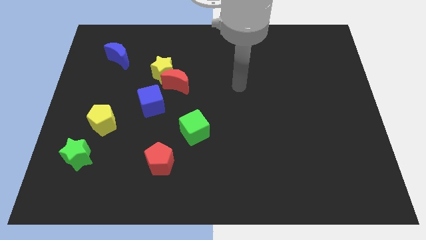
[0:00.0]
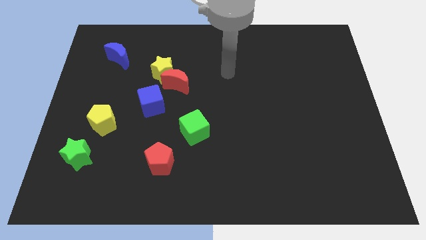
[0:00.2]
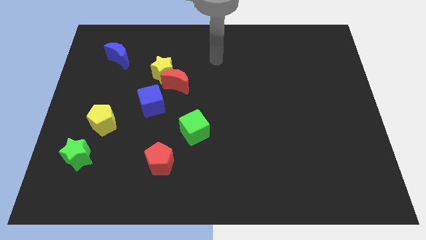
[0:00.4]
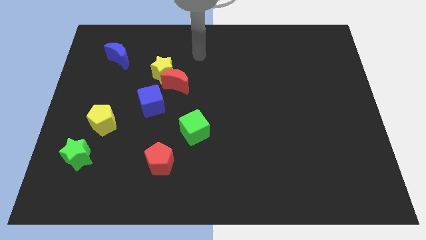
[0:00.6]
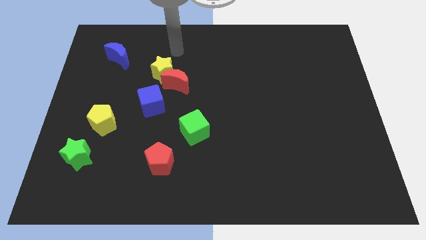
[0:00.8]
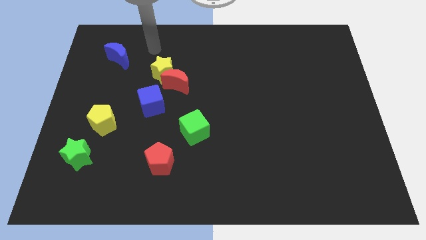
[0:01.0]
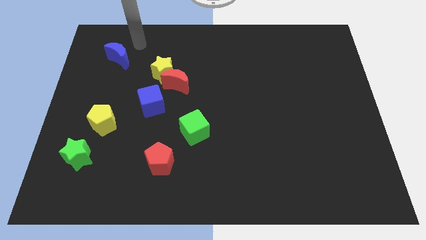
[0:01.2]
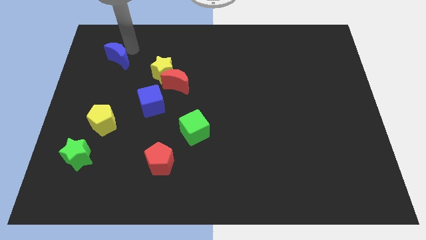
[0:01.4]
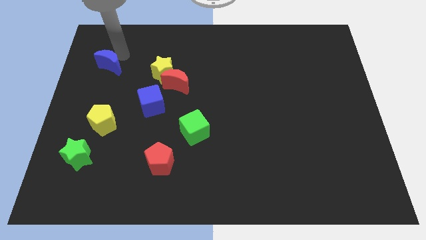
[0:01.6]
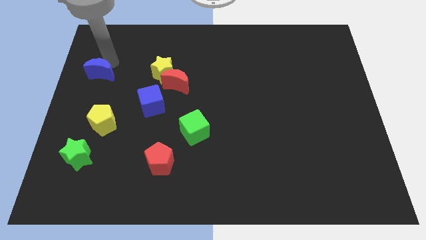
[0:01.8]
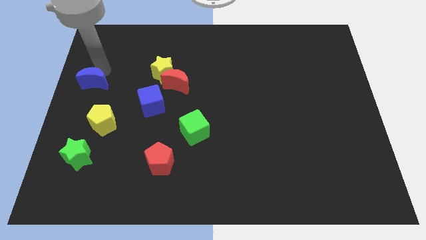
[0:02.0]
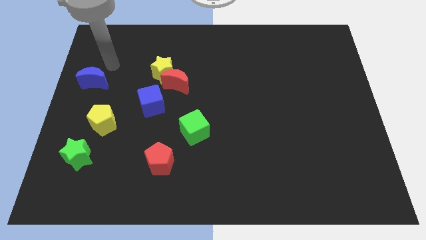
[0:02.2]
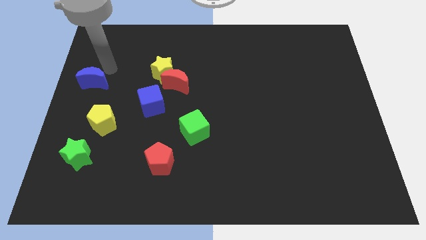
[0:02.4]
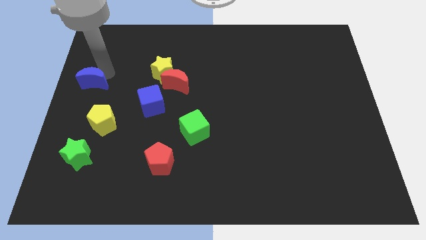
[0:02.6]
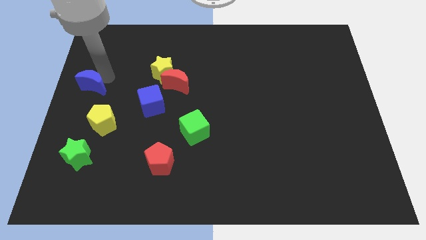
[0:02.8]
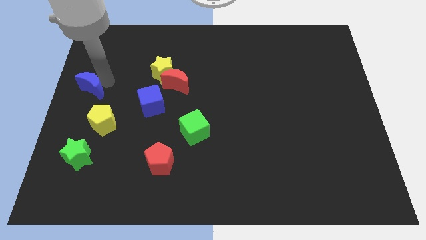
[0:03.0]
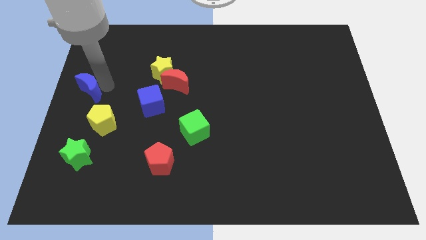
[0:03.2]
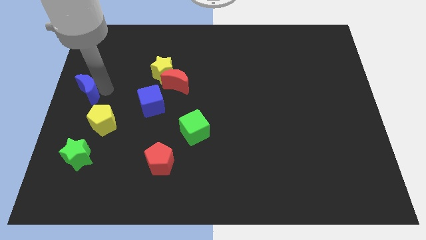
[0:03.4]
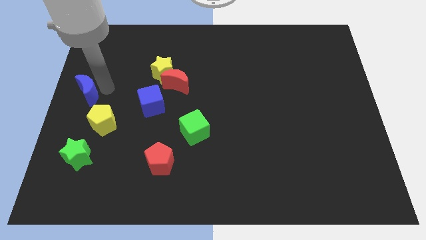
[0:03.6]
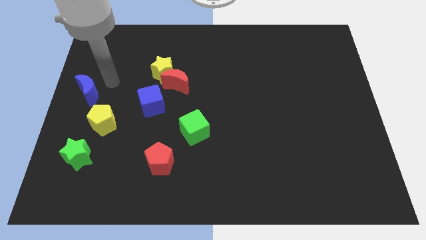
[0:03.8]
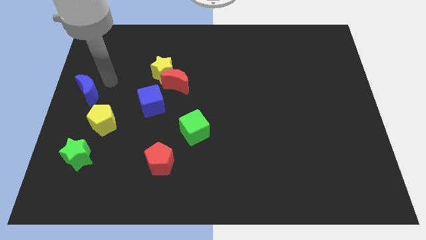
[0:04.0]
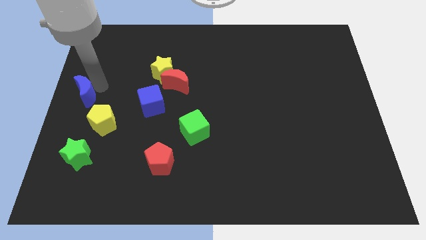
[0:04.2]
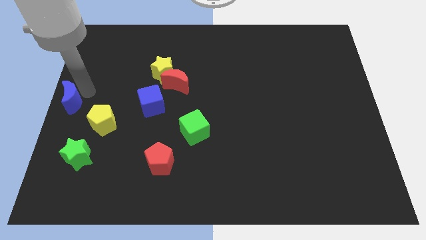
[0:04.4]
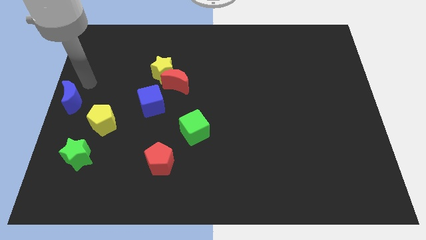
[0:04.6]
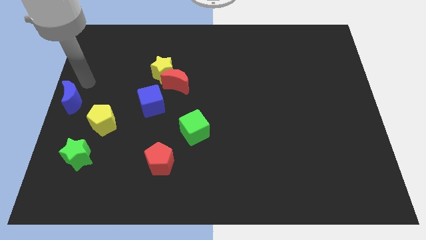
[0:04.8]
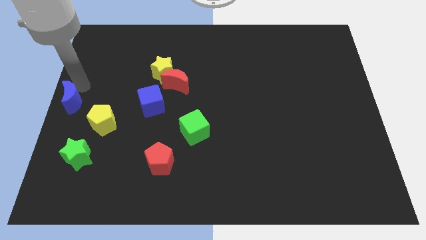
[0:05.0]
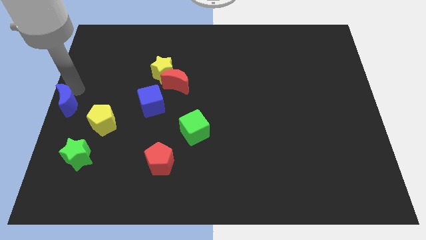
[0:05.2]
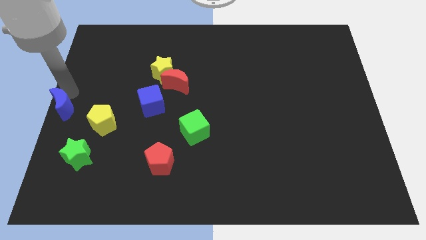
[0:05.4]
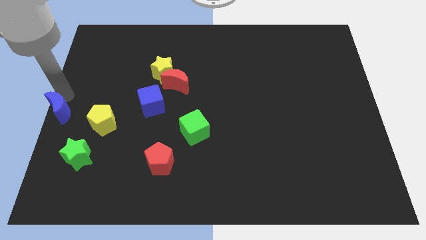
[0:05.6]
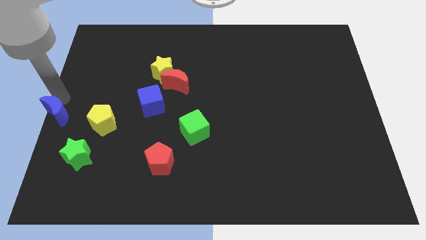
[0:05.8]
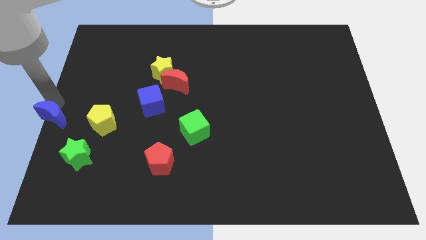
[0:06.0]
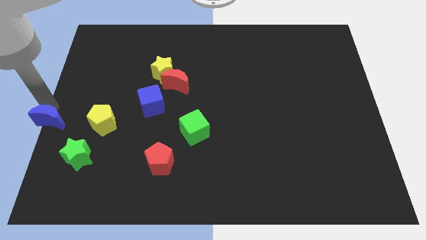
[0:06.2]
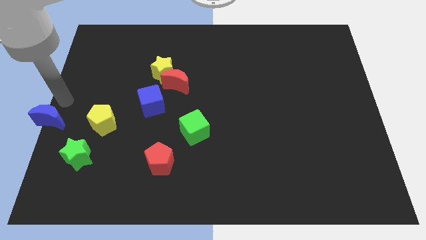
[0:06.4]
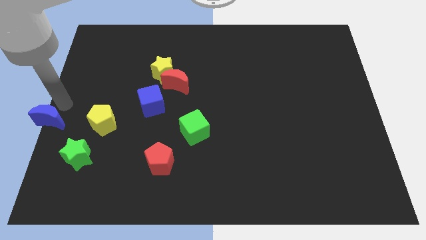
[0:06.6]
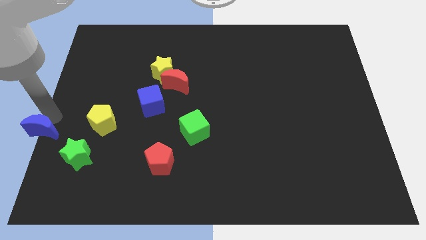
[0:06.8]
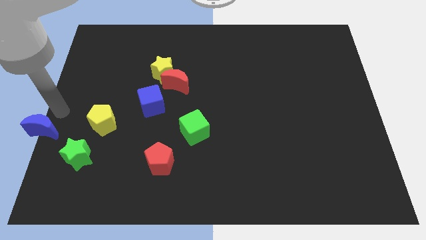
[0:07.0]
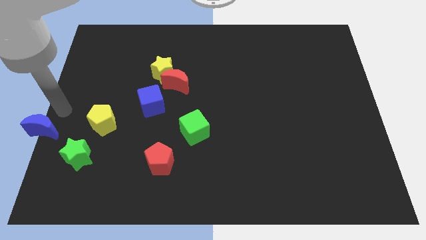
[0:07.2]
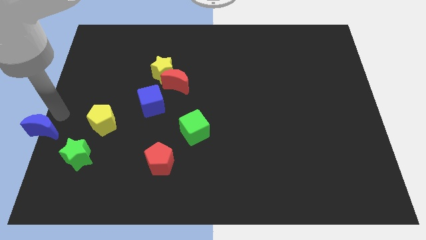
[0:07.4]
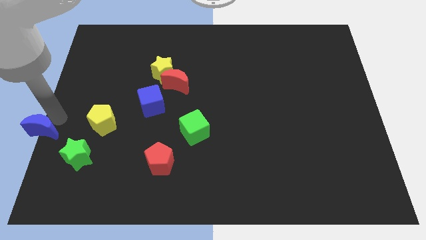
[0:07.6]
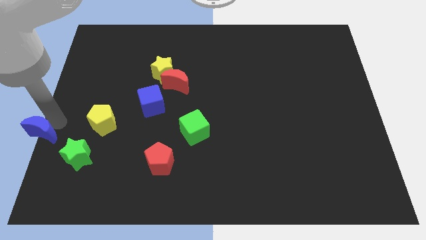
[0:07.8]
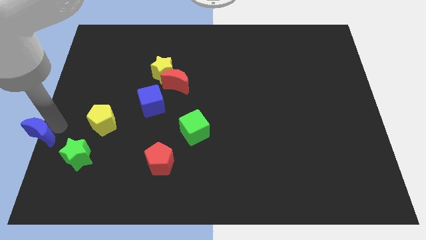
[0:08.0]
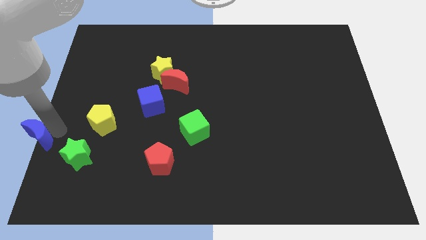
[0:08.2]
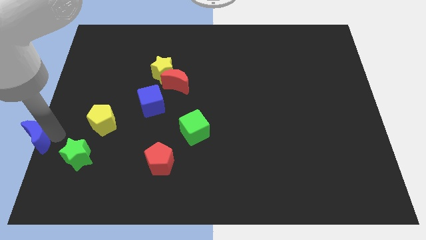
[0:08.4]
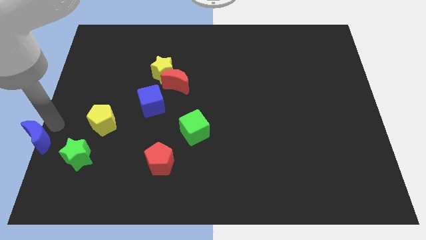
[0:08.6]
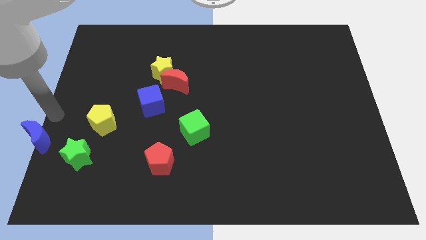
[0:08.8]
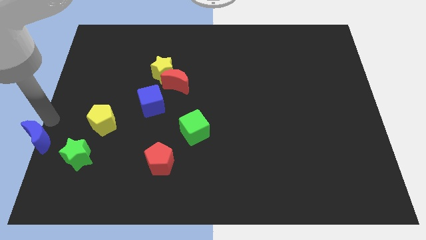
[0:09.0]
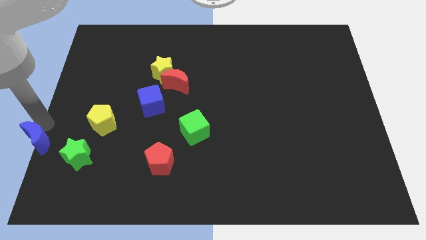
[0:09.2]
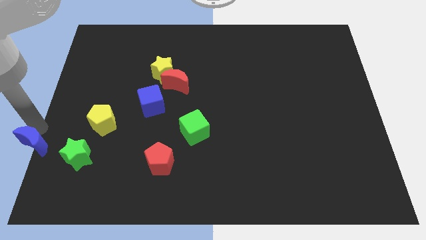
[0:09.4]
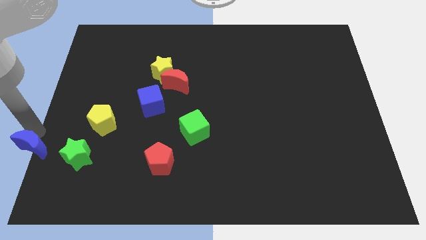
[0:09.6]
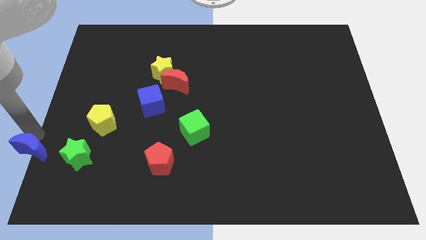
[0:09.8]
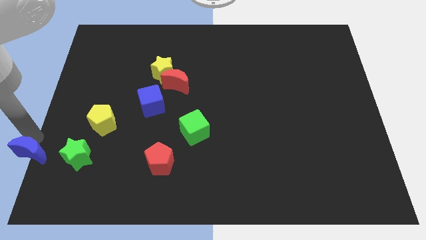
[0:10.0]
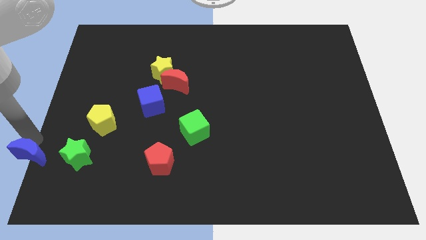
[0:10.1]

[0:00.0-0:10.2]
push the blue moon to the bottom left of the board

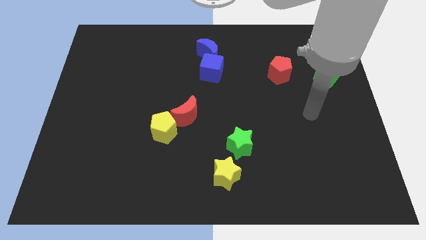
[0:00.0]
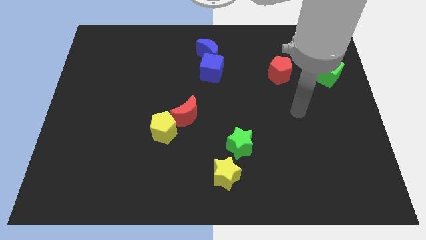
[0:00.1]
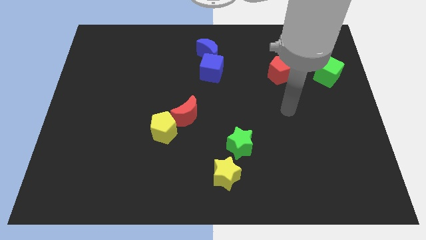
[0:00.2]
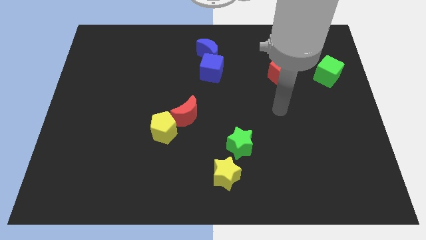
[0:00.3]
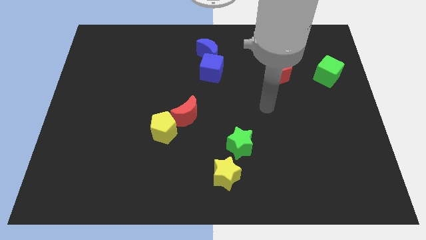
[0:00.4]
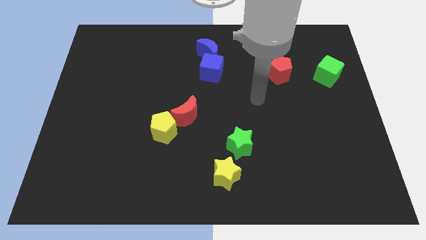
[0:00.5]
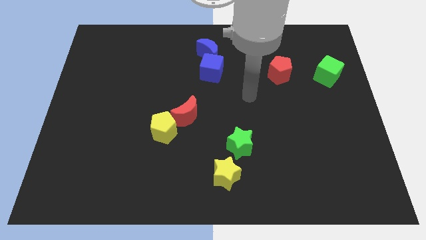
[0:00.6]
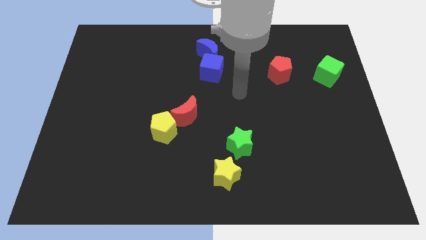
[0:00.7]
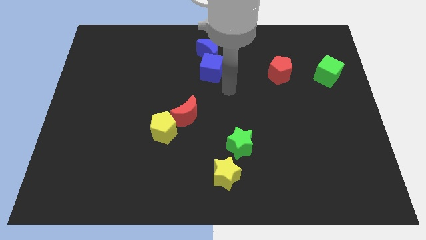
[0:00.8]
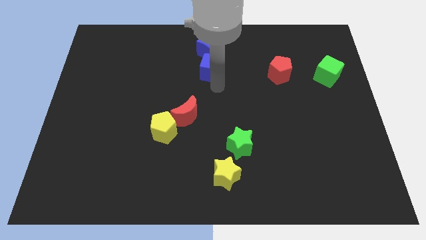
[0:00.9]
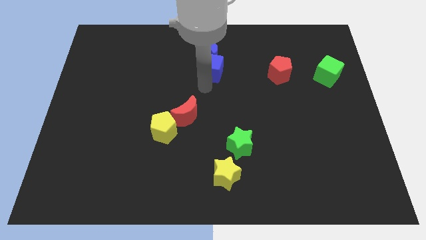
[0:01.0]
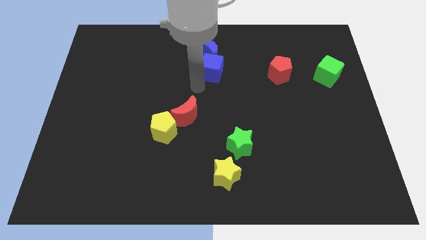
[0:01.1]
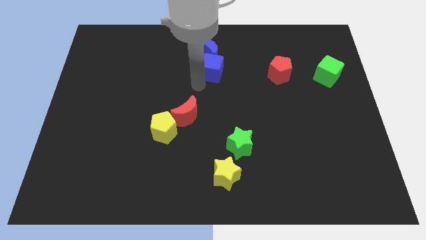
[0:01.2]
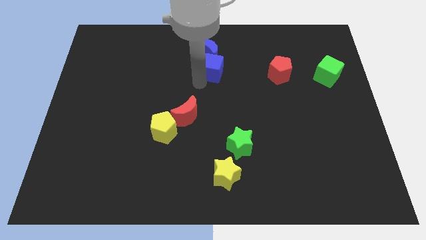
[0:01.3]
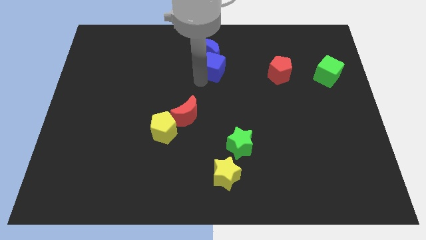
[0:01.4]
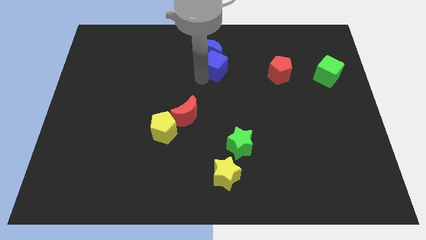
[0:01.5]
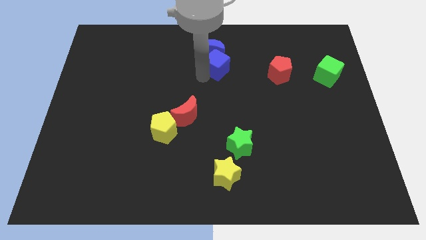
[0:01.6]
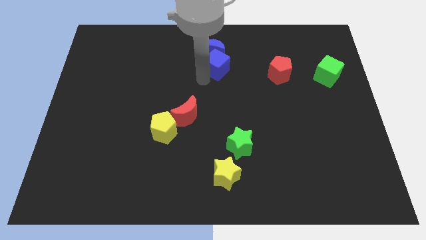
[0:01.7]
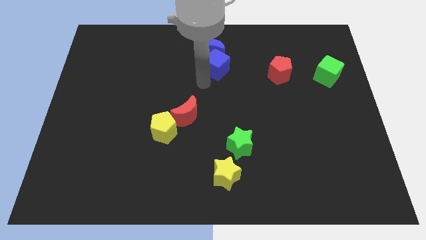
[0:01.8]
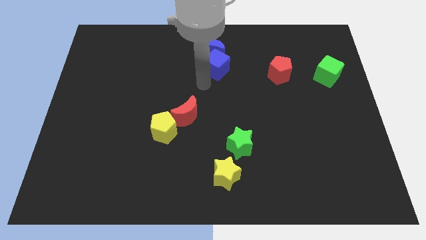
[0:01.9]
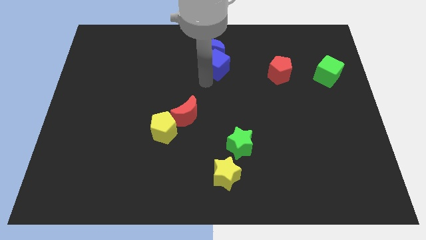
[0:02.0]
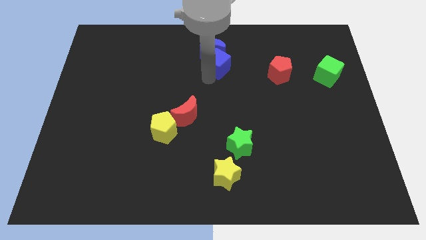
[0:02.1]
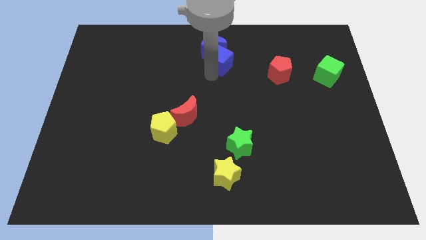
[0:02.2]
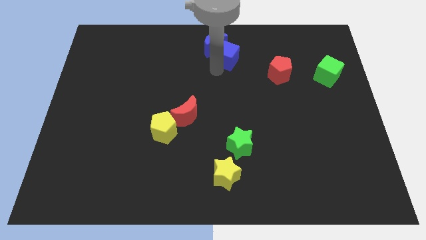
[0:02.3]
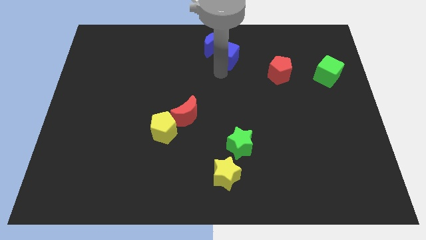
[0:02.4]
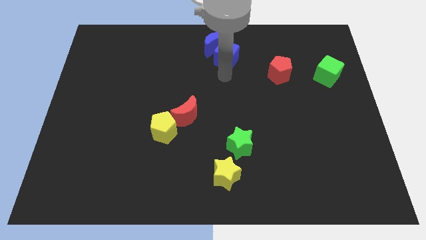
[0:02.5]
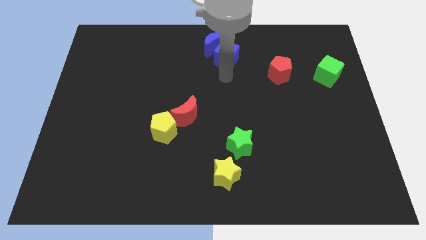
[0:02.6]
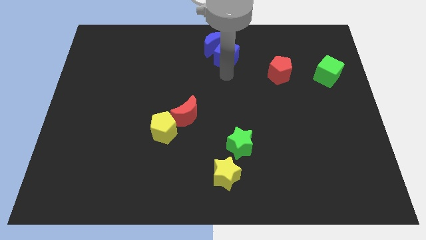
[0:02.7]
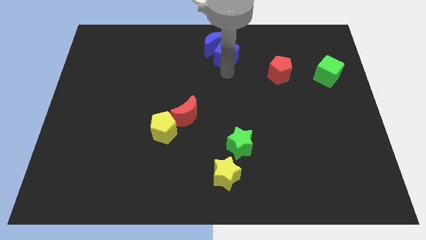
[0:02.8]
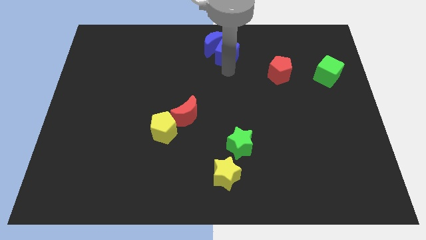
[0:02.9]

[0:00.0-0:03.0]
move the blue cube to the towards your base
